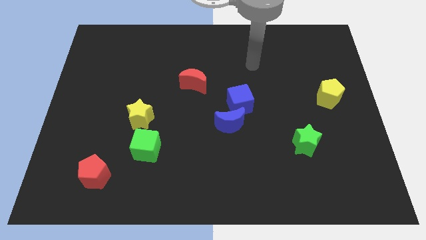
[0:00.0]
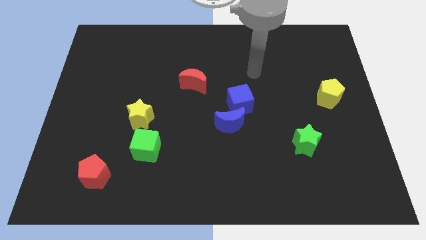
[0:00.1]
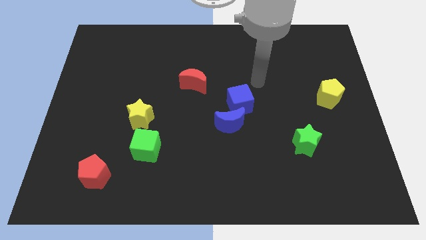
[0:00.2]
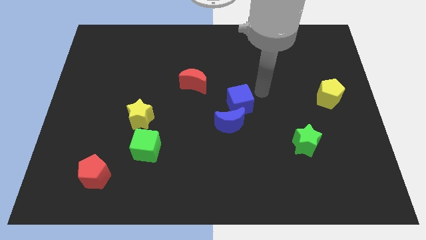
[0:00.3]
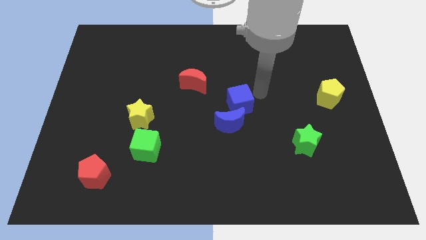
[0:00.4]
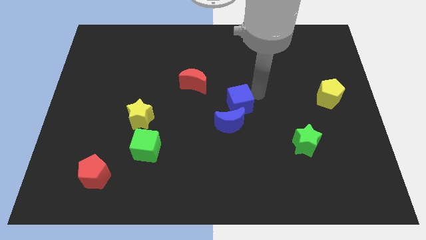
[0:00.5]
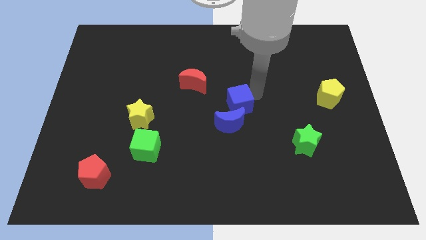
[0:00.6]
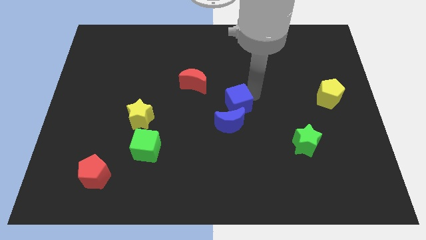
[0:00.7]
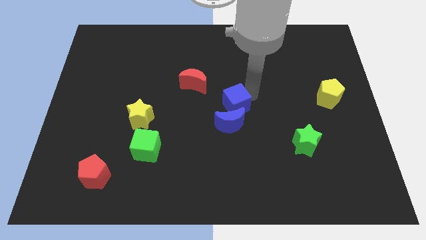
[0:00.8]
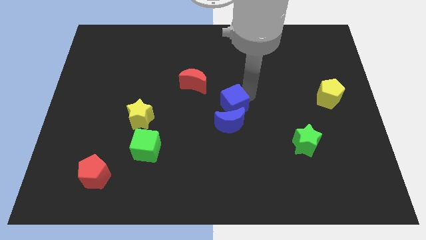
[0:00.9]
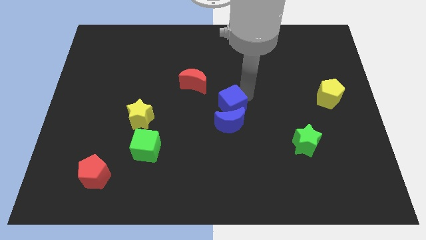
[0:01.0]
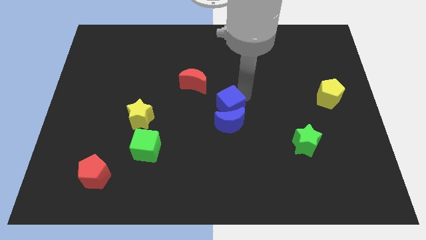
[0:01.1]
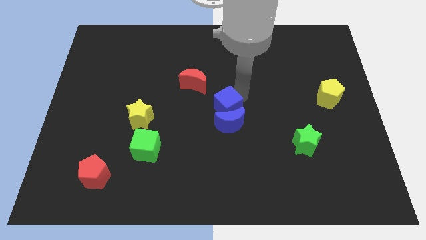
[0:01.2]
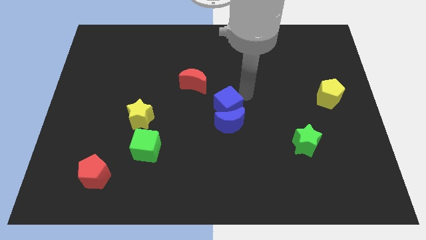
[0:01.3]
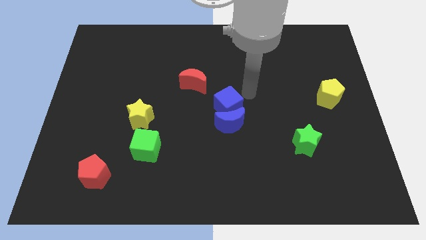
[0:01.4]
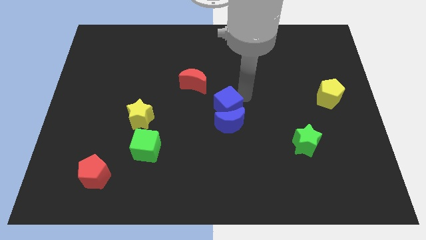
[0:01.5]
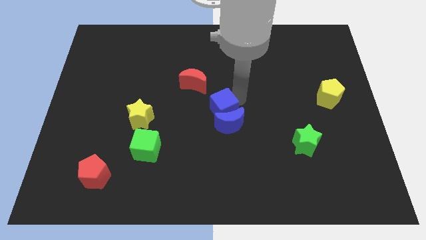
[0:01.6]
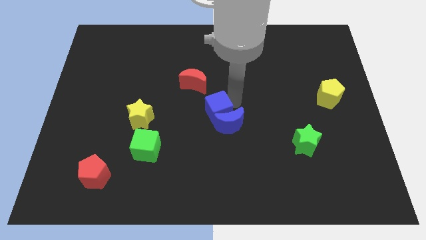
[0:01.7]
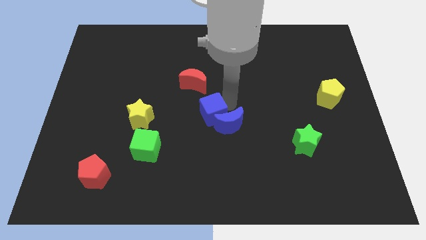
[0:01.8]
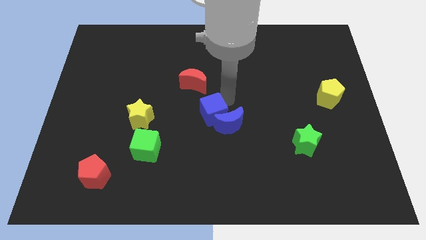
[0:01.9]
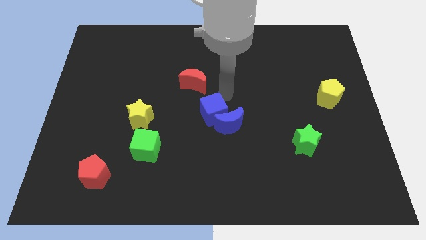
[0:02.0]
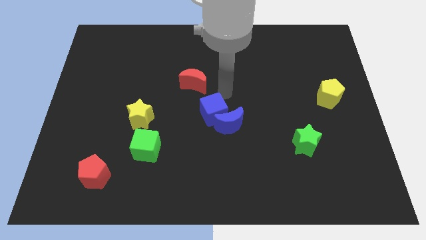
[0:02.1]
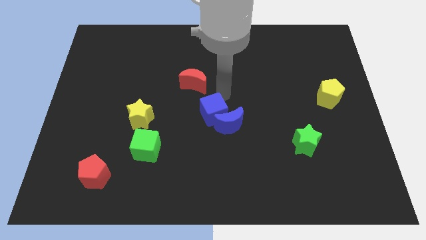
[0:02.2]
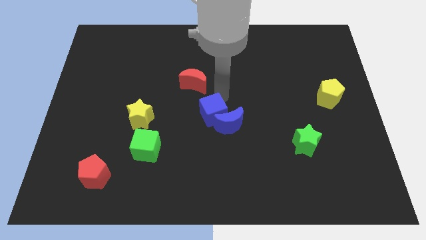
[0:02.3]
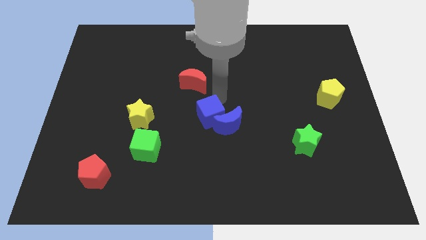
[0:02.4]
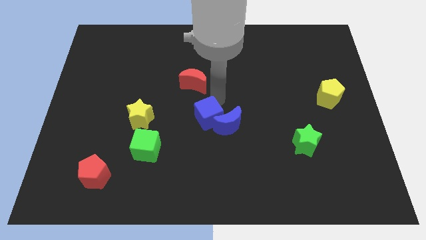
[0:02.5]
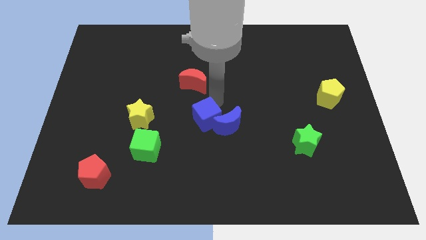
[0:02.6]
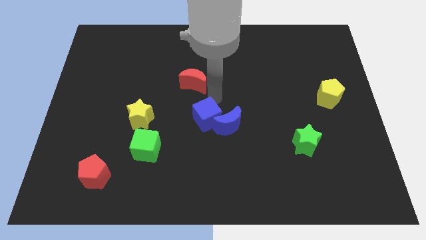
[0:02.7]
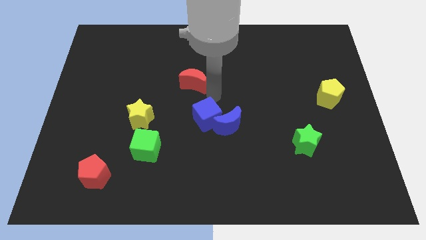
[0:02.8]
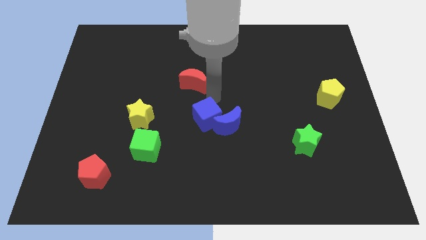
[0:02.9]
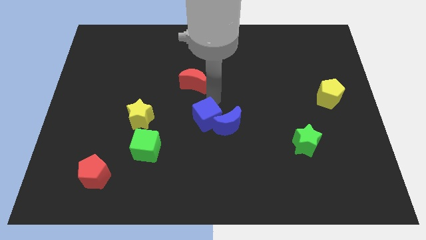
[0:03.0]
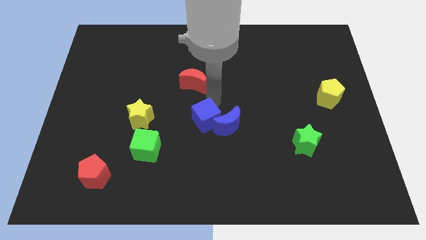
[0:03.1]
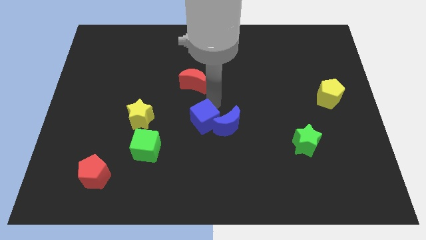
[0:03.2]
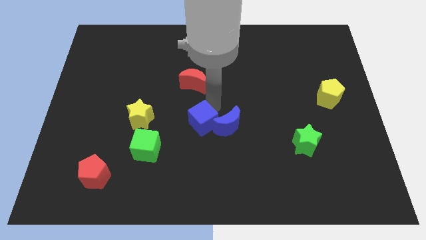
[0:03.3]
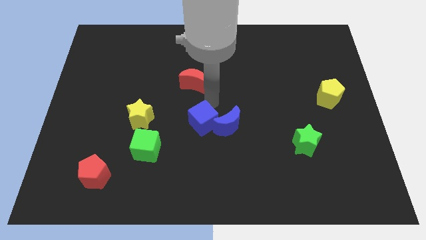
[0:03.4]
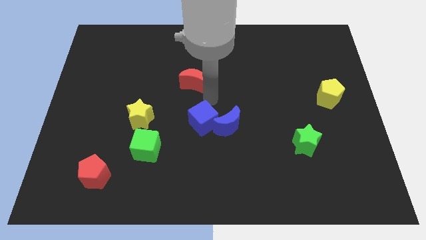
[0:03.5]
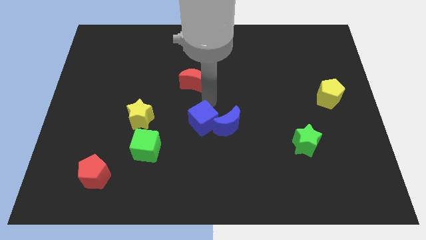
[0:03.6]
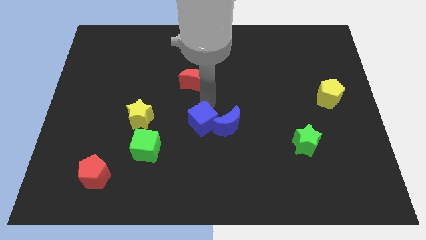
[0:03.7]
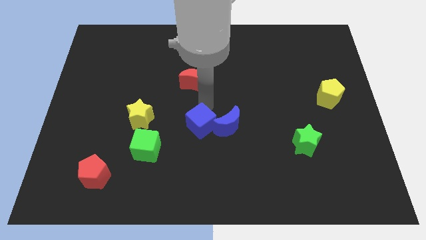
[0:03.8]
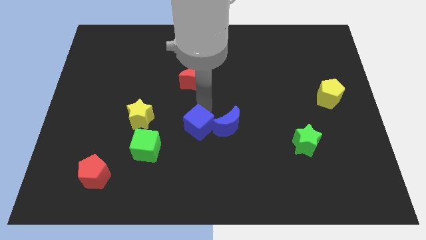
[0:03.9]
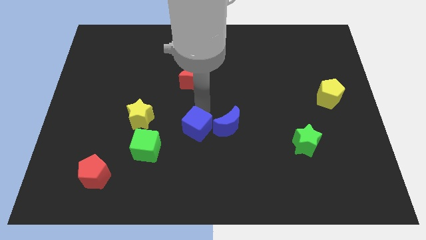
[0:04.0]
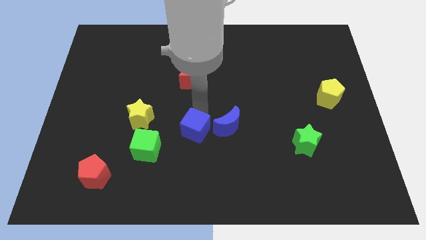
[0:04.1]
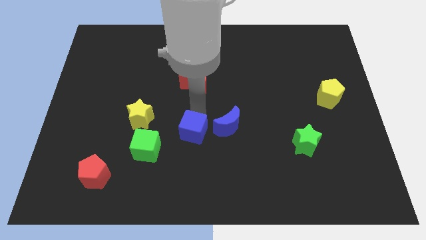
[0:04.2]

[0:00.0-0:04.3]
slide the blue cube to the right side of the green cube

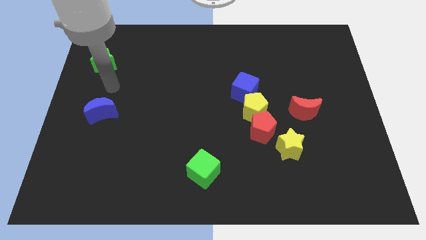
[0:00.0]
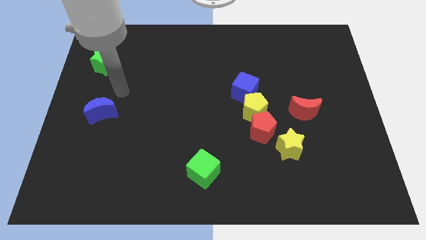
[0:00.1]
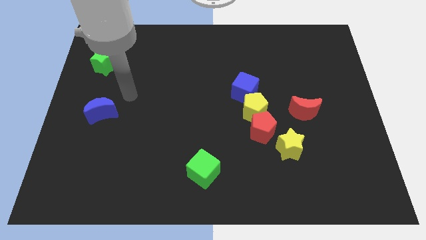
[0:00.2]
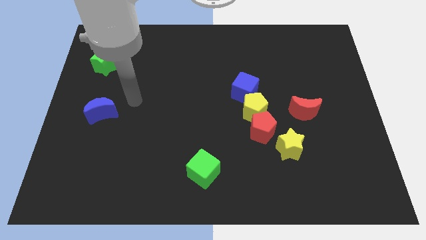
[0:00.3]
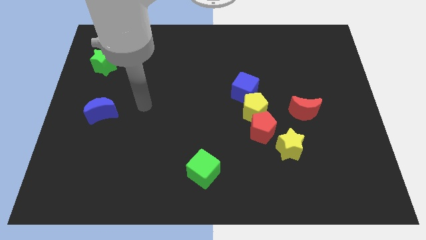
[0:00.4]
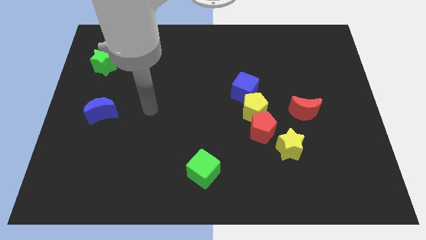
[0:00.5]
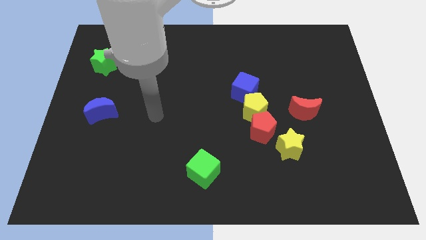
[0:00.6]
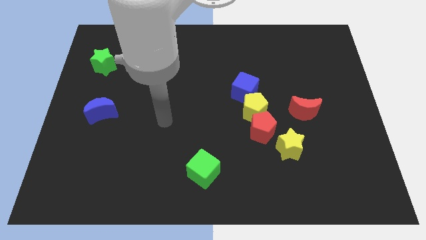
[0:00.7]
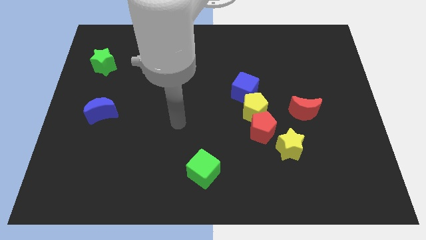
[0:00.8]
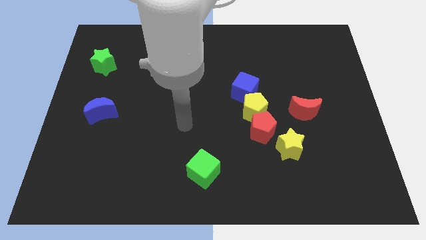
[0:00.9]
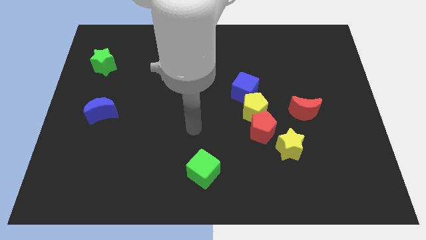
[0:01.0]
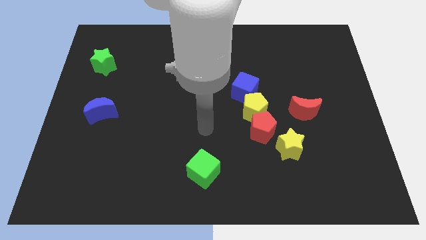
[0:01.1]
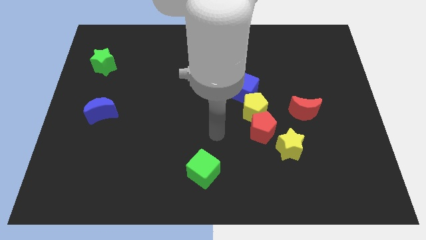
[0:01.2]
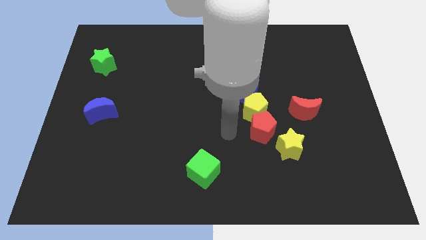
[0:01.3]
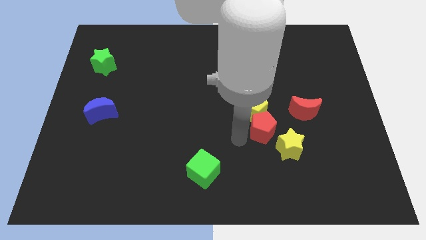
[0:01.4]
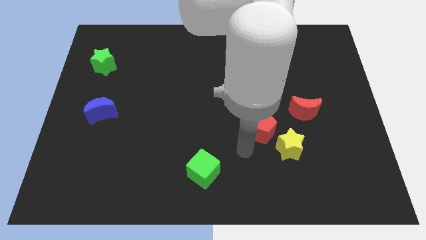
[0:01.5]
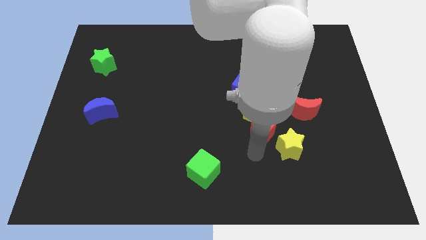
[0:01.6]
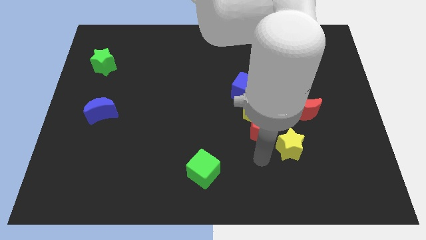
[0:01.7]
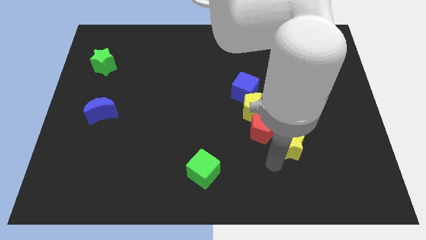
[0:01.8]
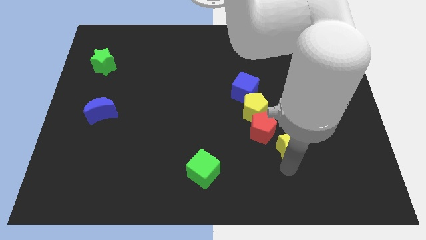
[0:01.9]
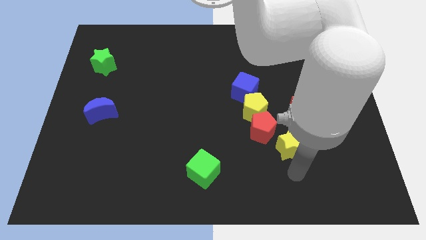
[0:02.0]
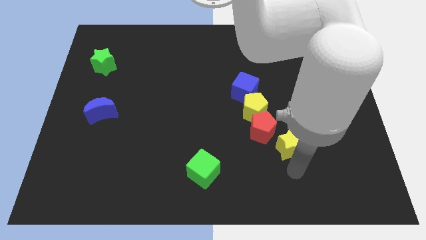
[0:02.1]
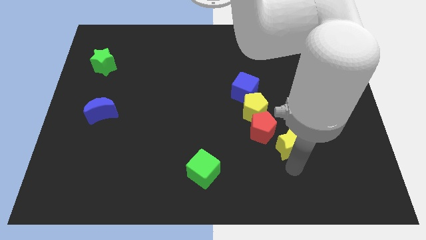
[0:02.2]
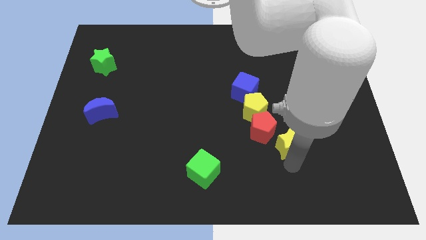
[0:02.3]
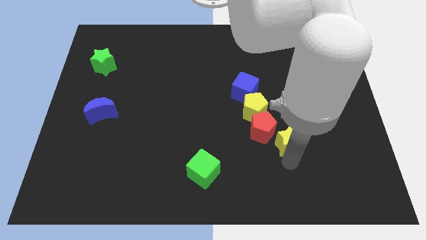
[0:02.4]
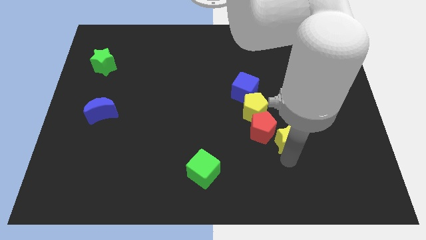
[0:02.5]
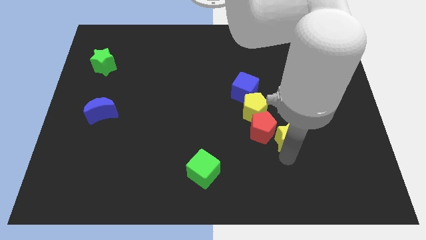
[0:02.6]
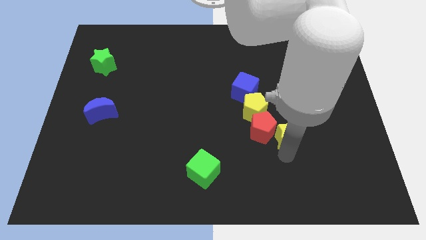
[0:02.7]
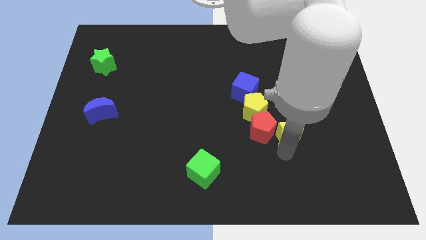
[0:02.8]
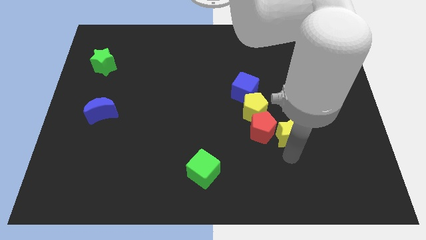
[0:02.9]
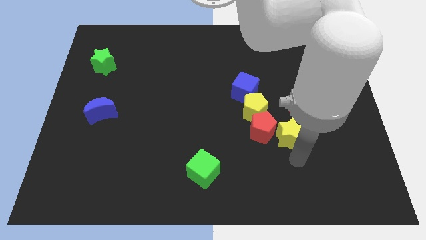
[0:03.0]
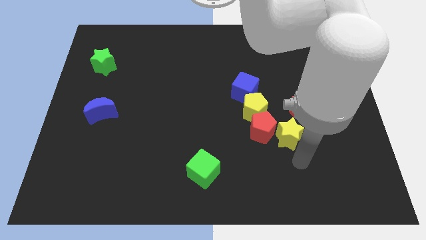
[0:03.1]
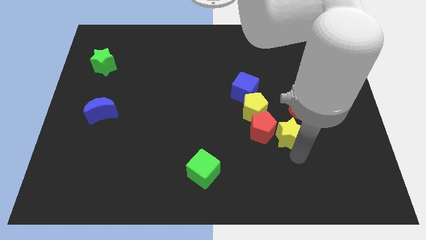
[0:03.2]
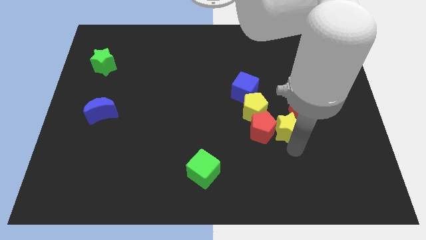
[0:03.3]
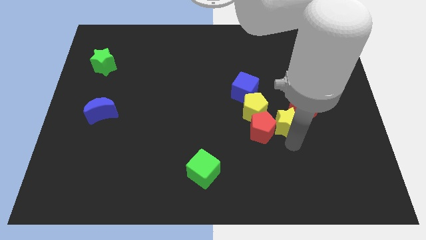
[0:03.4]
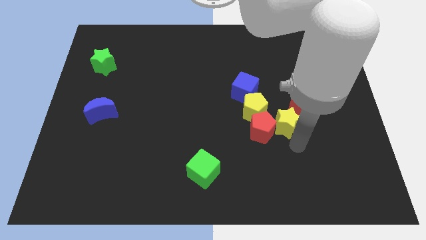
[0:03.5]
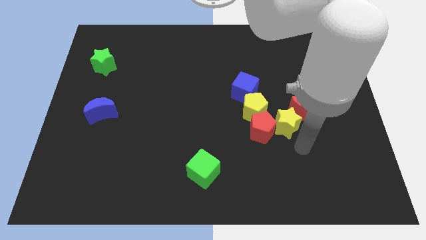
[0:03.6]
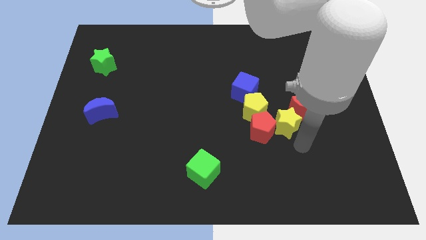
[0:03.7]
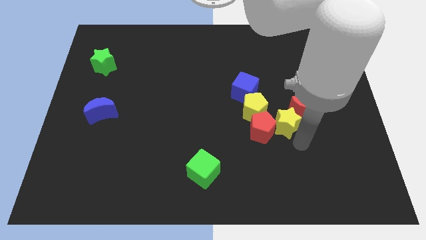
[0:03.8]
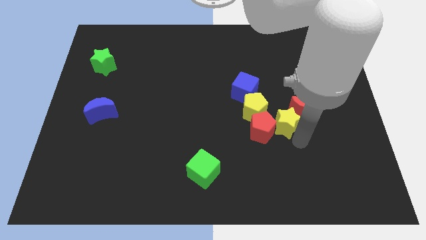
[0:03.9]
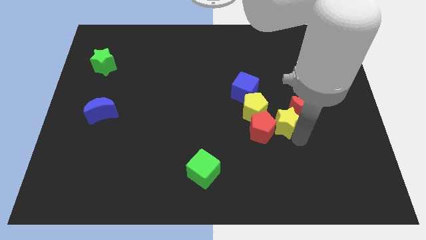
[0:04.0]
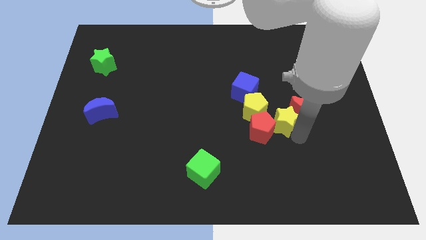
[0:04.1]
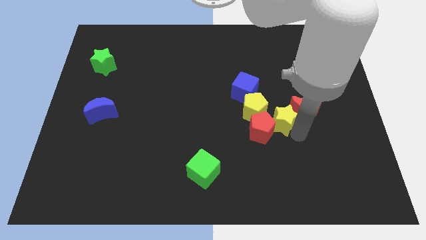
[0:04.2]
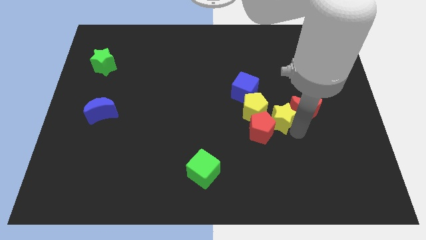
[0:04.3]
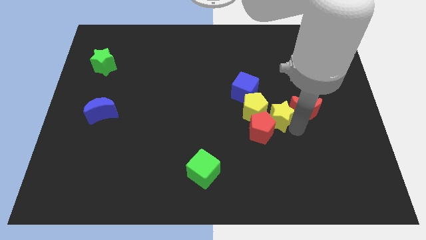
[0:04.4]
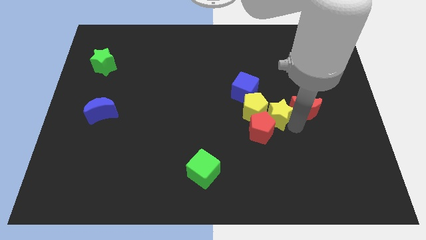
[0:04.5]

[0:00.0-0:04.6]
slide the yellow star to the top of the red pentagon
